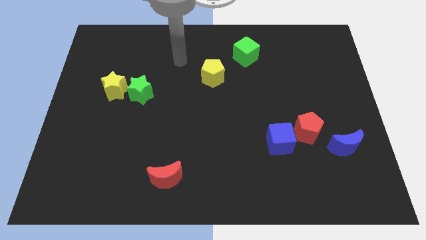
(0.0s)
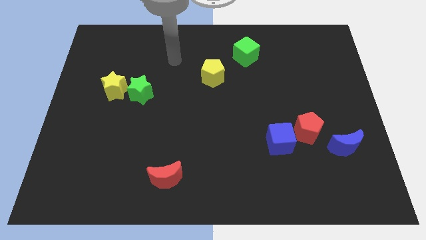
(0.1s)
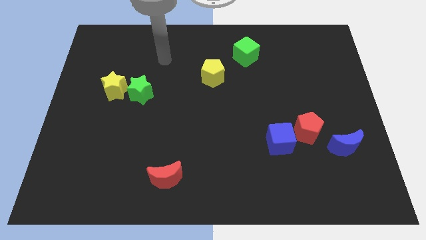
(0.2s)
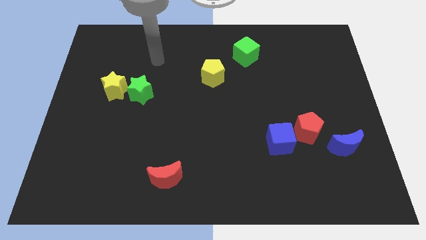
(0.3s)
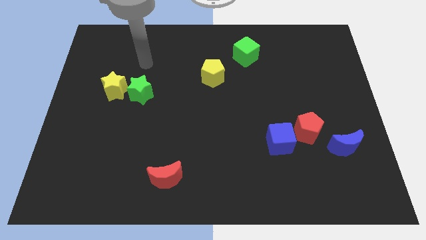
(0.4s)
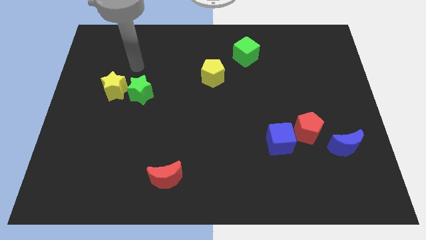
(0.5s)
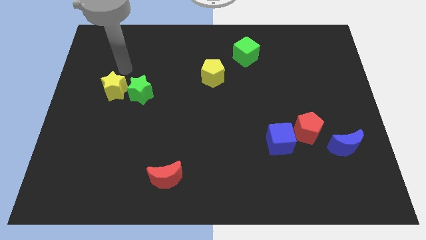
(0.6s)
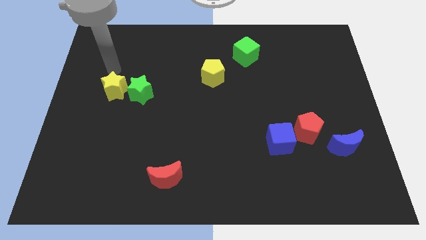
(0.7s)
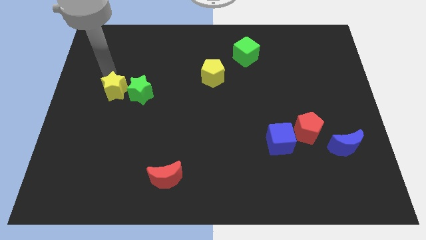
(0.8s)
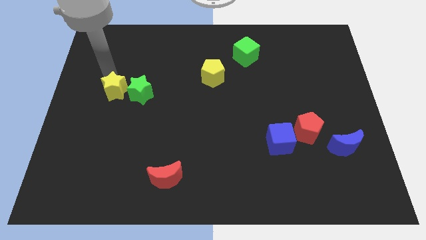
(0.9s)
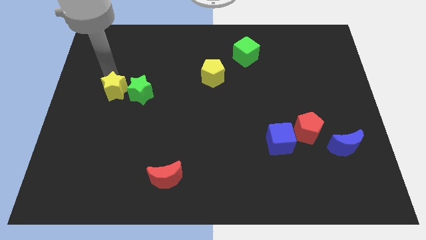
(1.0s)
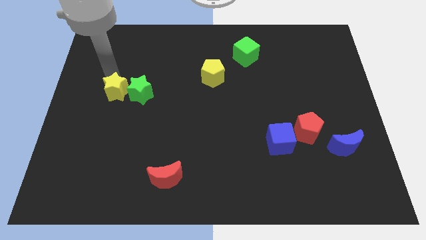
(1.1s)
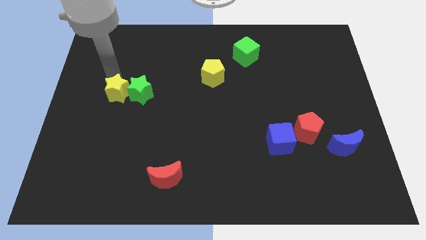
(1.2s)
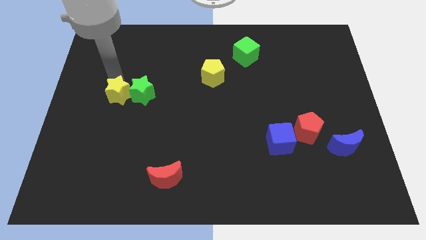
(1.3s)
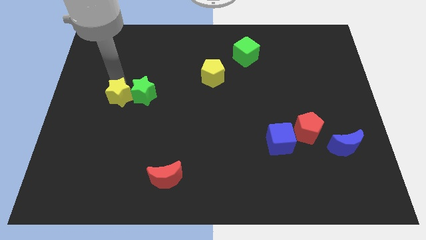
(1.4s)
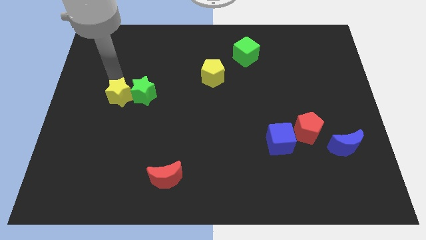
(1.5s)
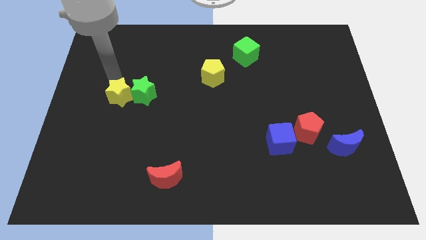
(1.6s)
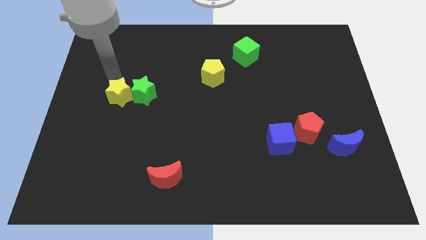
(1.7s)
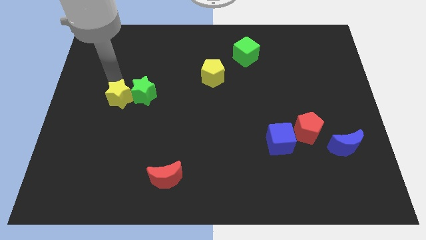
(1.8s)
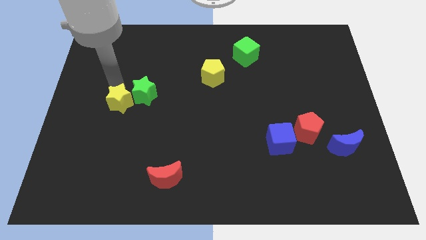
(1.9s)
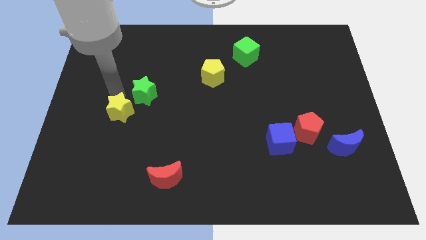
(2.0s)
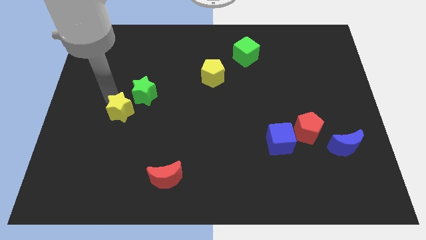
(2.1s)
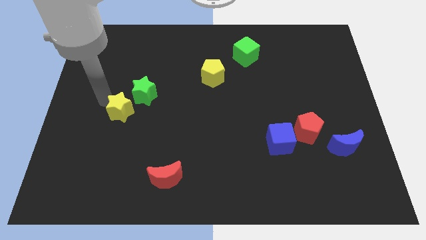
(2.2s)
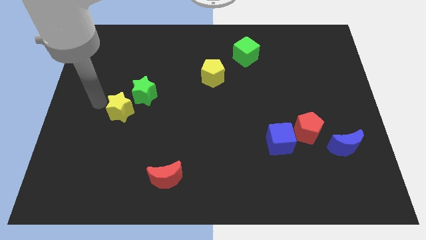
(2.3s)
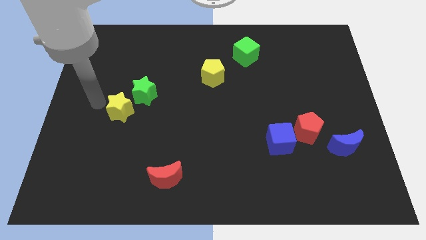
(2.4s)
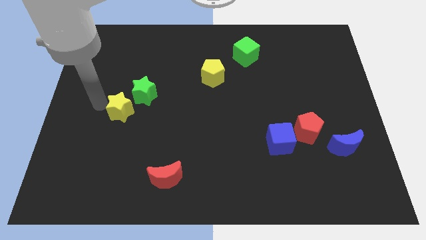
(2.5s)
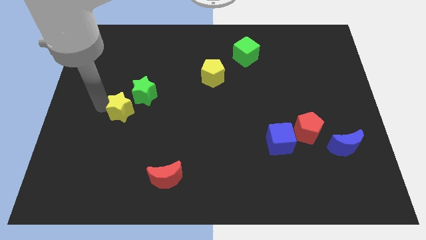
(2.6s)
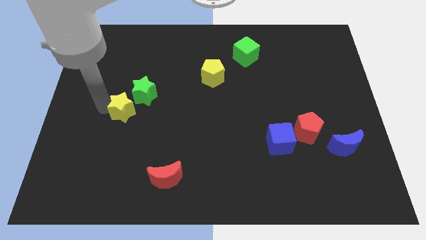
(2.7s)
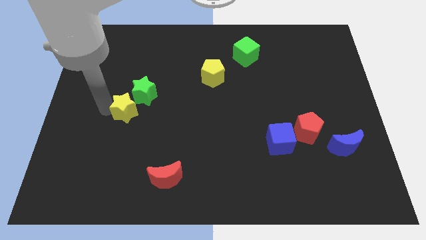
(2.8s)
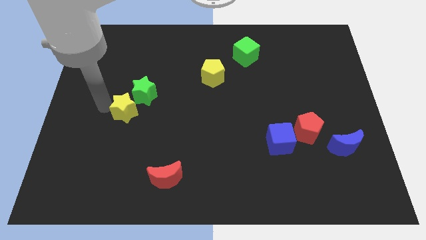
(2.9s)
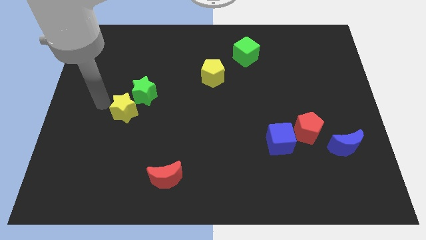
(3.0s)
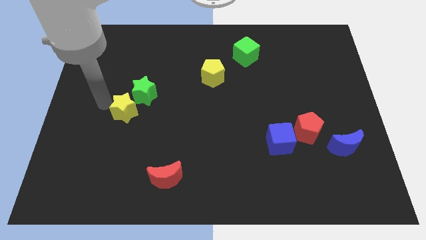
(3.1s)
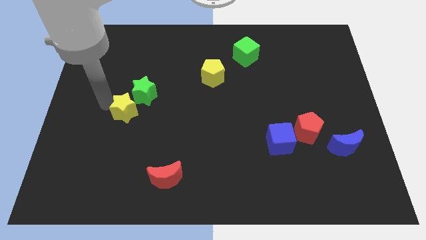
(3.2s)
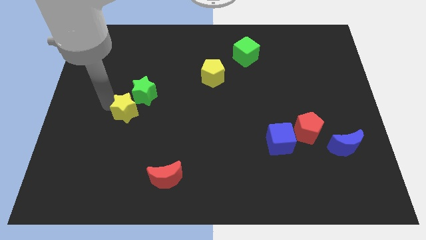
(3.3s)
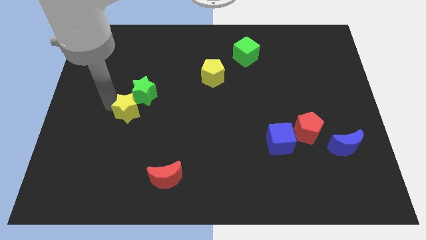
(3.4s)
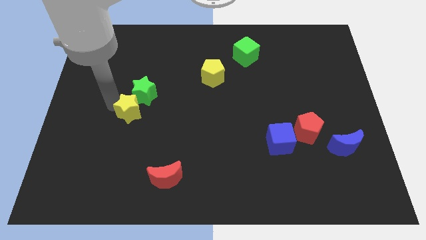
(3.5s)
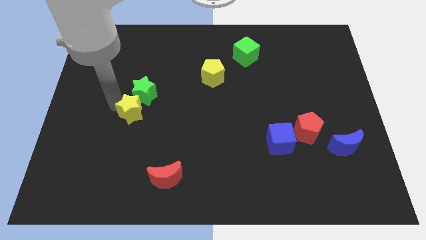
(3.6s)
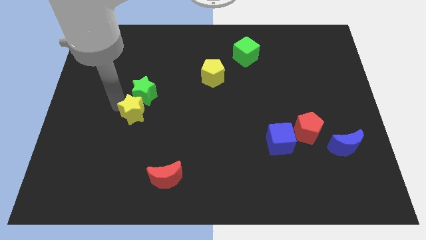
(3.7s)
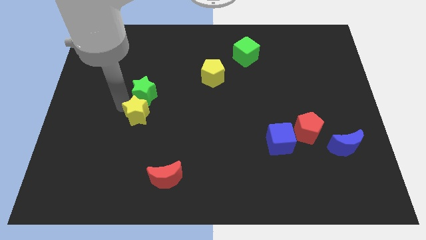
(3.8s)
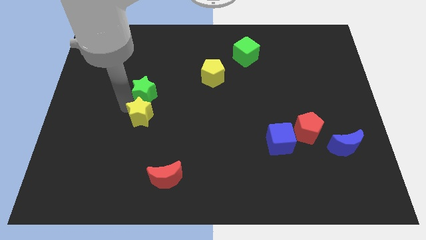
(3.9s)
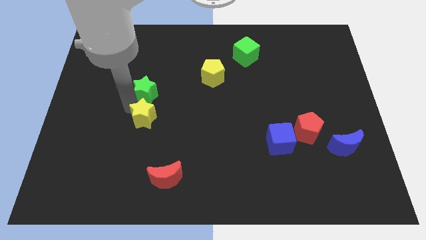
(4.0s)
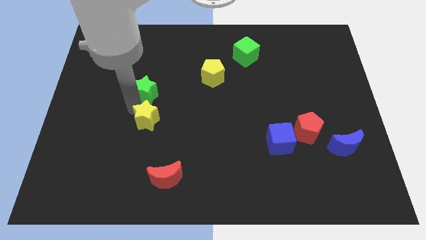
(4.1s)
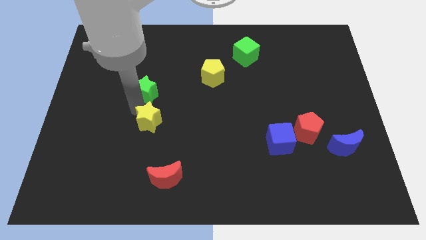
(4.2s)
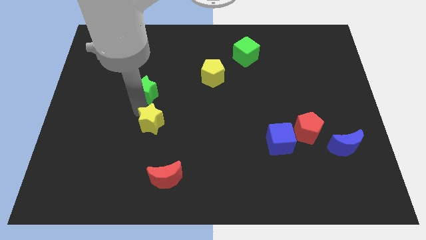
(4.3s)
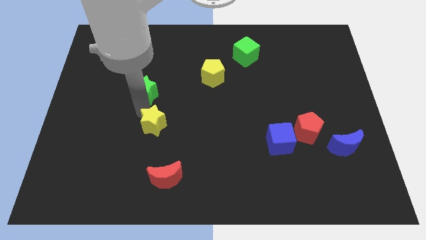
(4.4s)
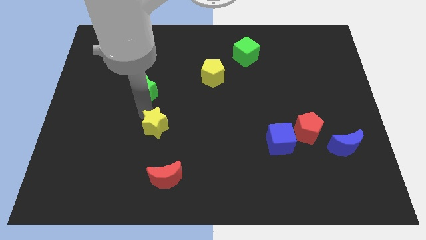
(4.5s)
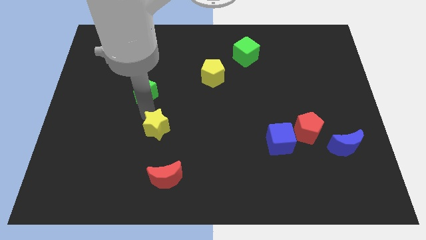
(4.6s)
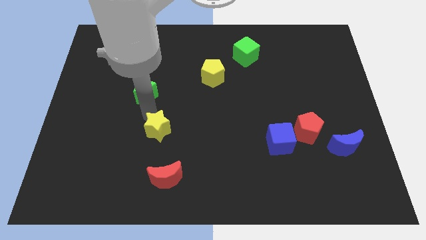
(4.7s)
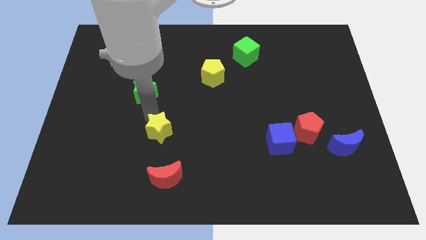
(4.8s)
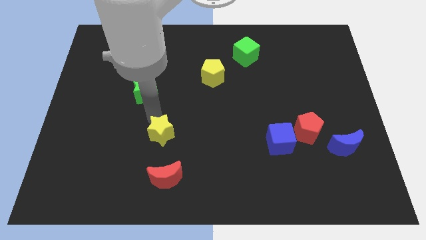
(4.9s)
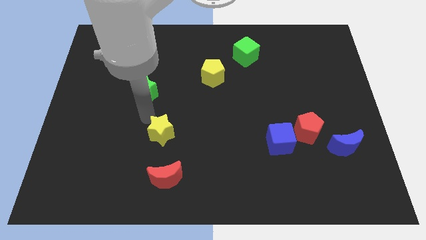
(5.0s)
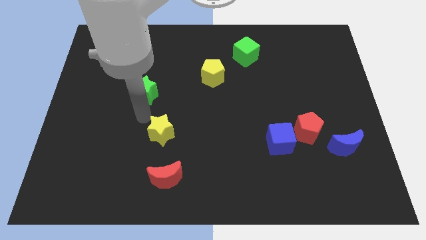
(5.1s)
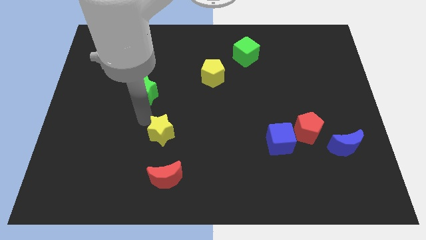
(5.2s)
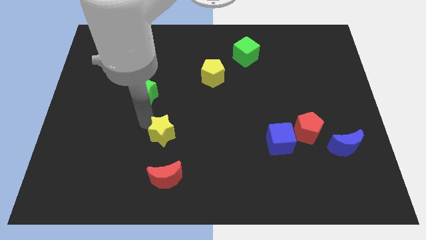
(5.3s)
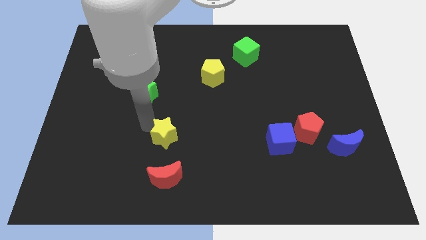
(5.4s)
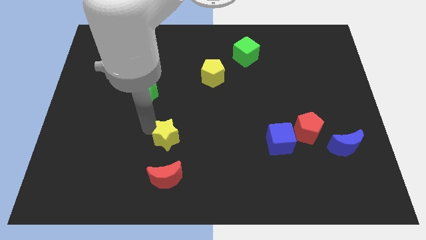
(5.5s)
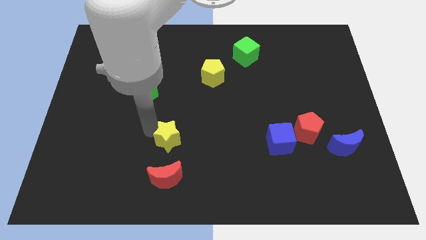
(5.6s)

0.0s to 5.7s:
slide the yellow star downwards and to the right diagonally

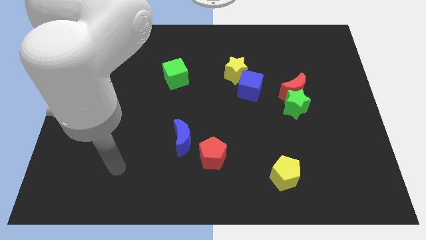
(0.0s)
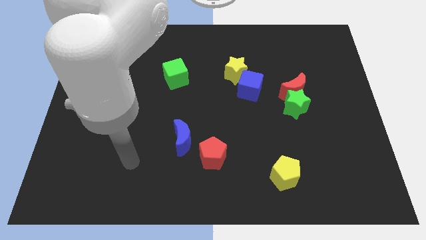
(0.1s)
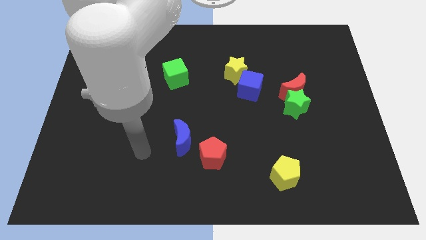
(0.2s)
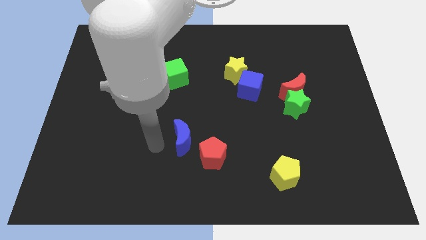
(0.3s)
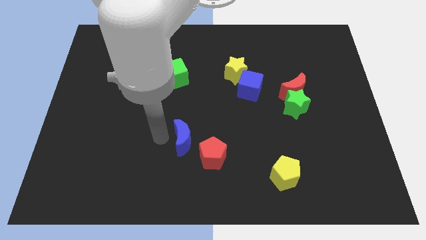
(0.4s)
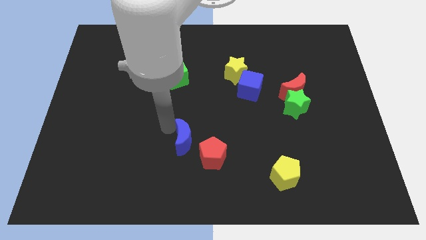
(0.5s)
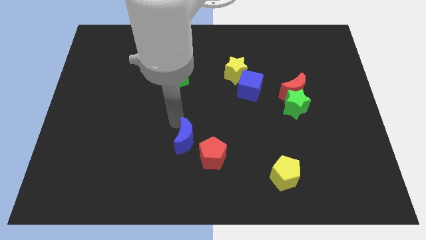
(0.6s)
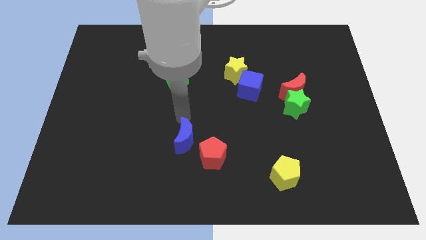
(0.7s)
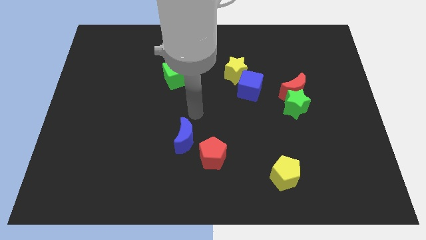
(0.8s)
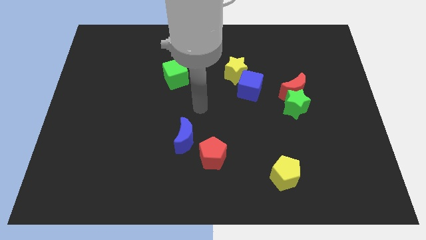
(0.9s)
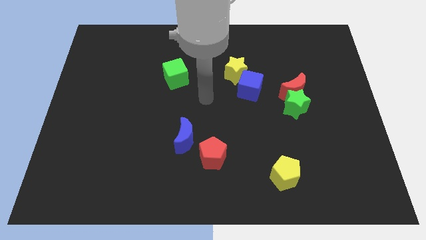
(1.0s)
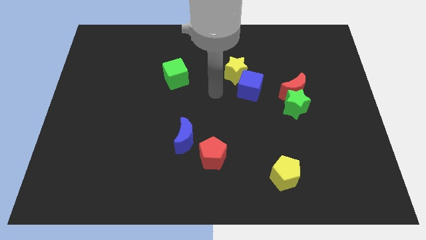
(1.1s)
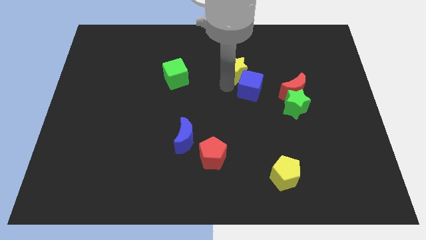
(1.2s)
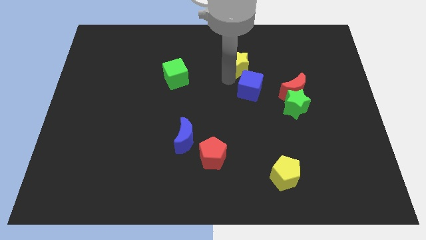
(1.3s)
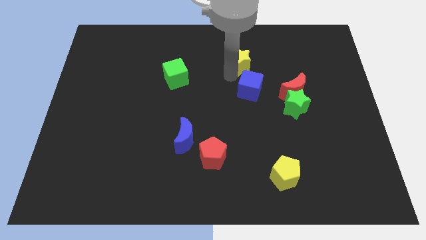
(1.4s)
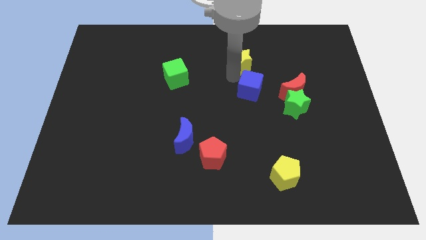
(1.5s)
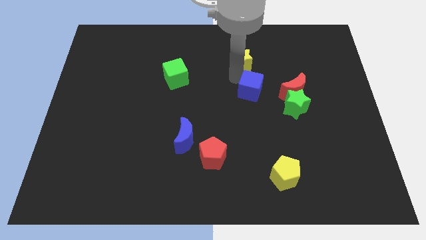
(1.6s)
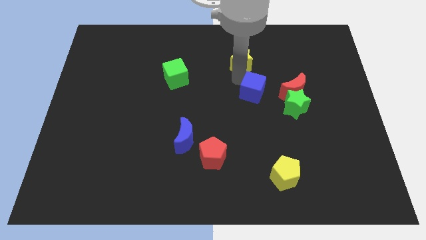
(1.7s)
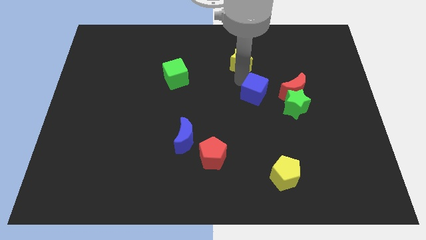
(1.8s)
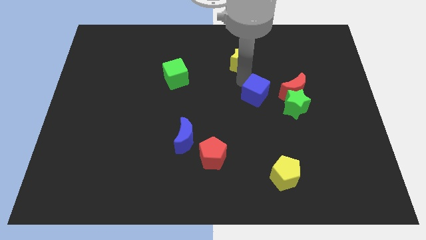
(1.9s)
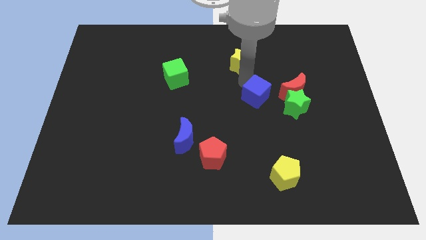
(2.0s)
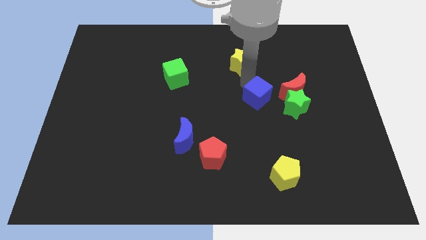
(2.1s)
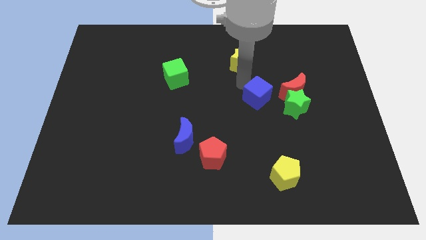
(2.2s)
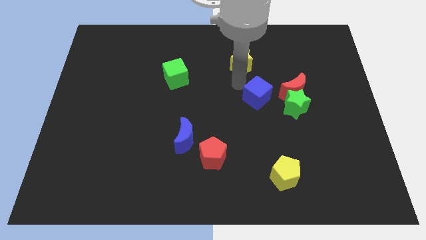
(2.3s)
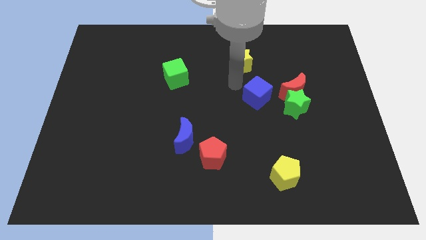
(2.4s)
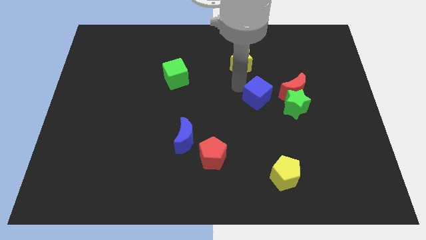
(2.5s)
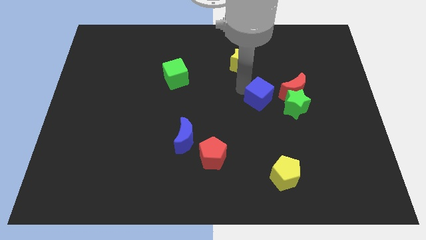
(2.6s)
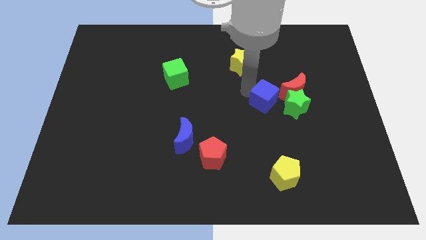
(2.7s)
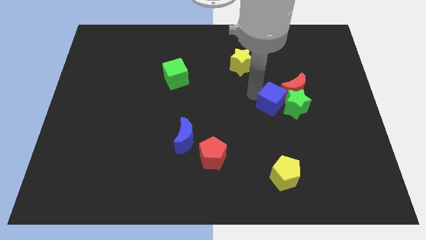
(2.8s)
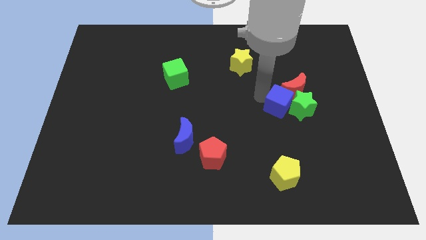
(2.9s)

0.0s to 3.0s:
slide the blue cube down and right diagonally somewhat
